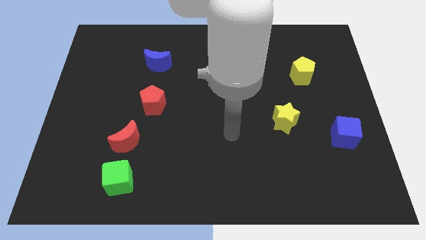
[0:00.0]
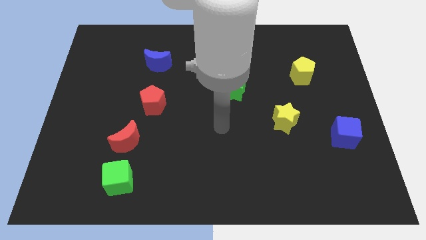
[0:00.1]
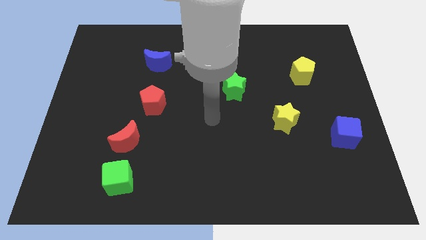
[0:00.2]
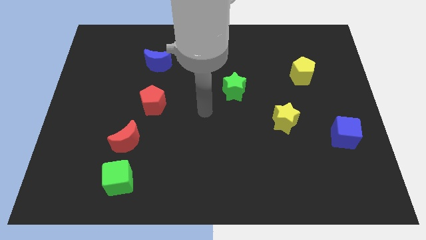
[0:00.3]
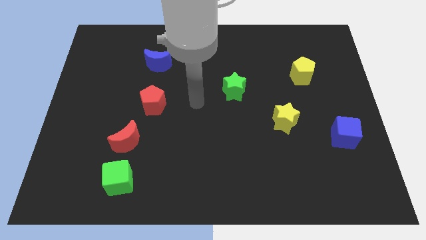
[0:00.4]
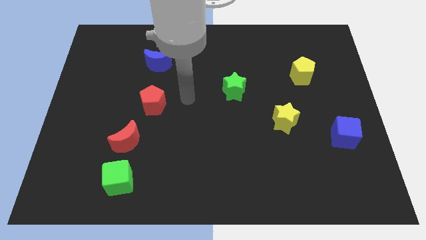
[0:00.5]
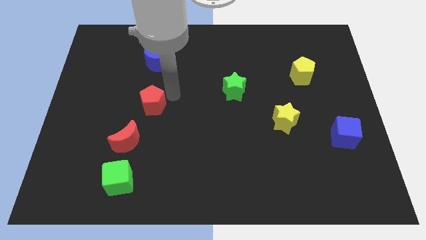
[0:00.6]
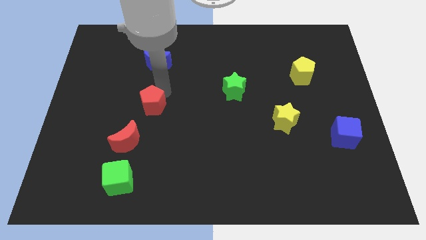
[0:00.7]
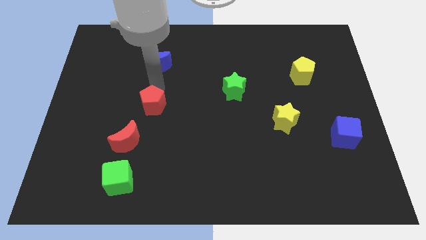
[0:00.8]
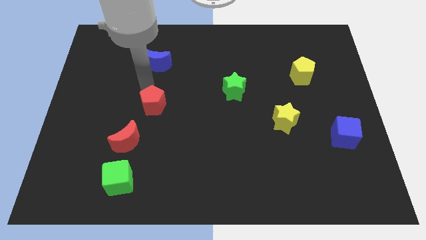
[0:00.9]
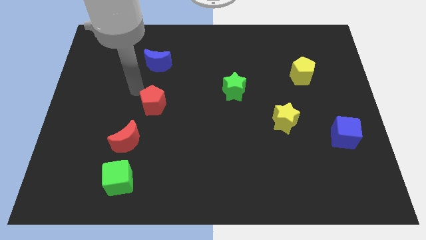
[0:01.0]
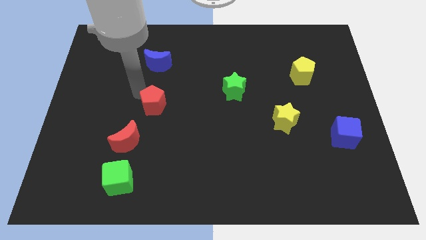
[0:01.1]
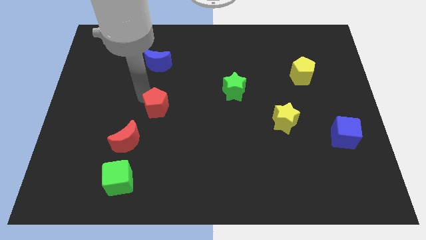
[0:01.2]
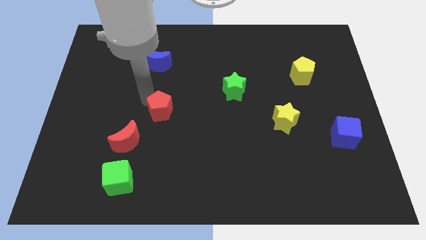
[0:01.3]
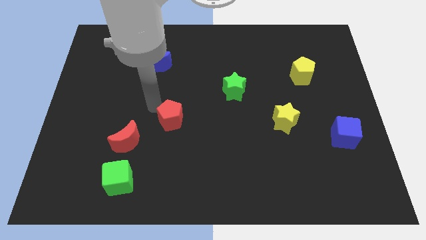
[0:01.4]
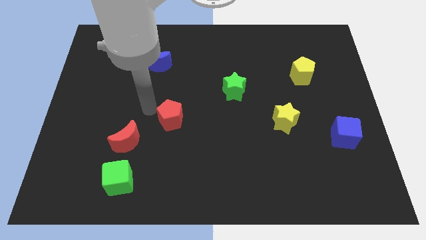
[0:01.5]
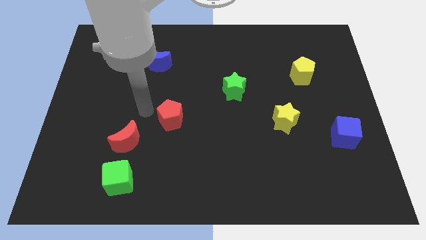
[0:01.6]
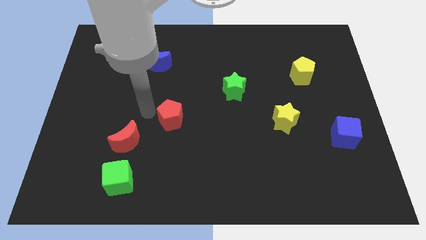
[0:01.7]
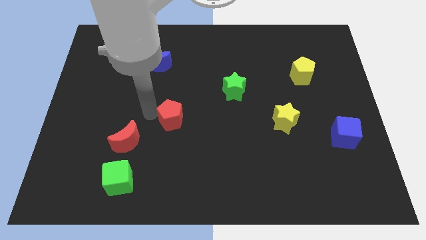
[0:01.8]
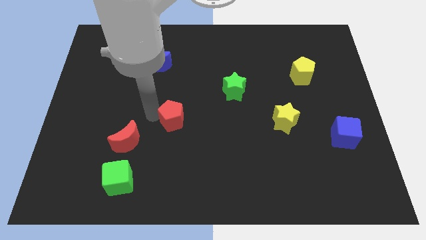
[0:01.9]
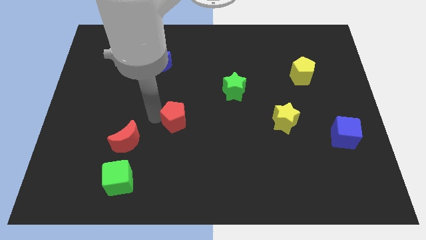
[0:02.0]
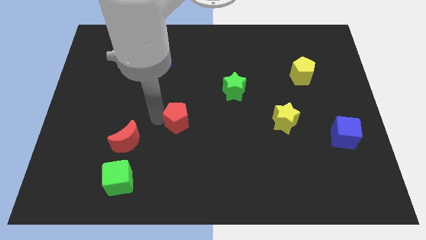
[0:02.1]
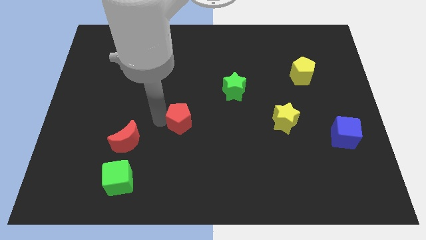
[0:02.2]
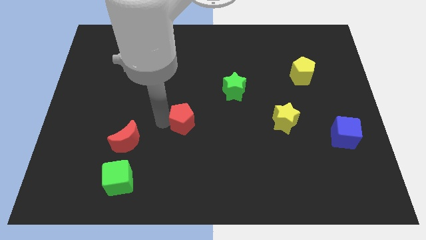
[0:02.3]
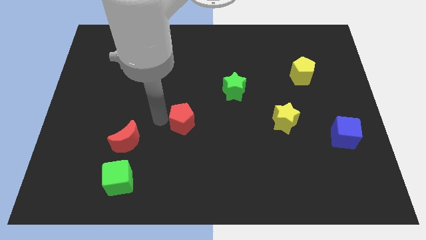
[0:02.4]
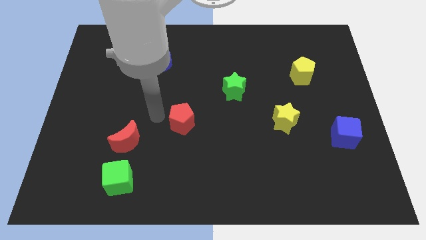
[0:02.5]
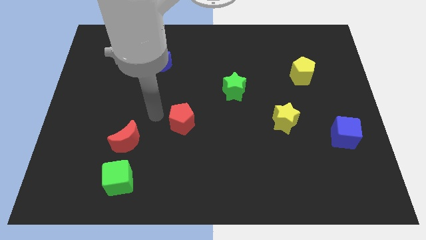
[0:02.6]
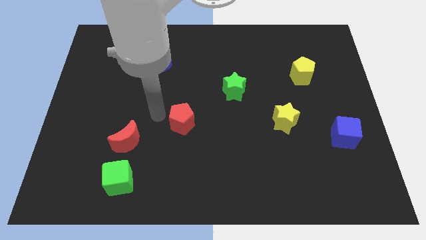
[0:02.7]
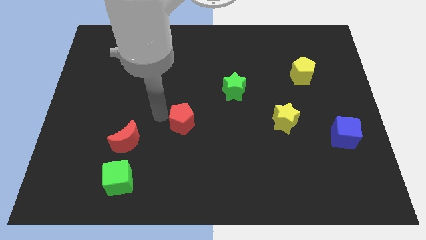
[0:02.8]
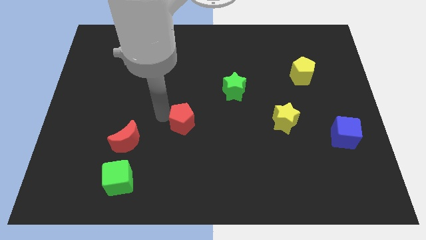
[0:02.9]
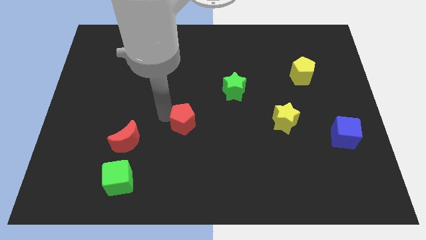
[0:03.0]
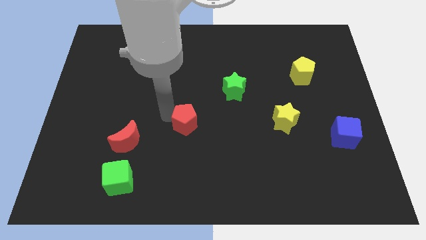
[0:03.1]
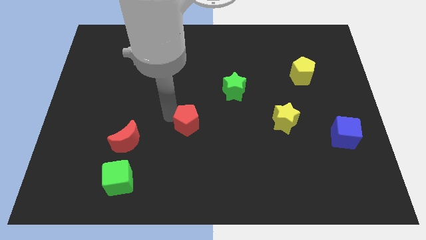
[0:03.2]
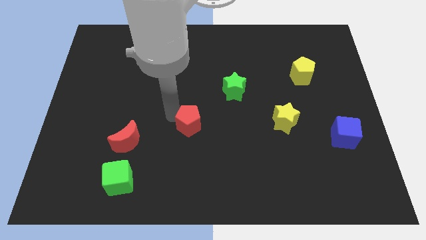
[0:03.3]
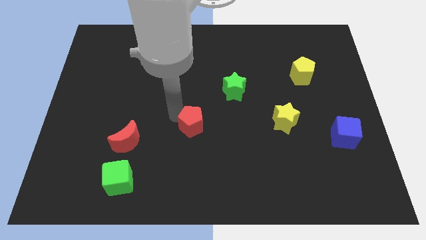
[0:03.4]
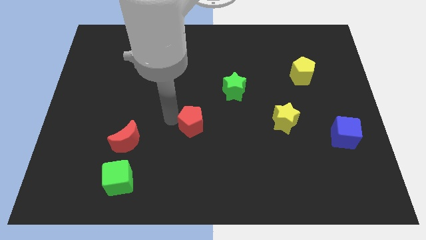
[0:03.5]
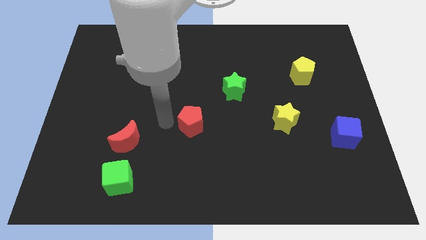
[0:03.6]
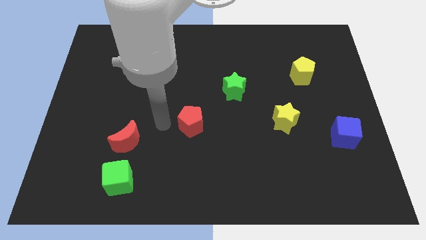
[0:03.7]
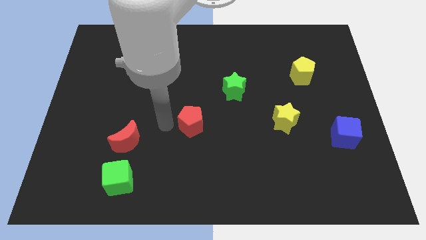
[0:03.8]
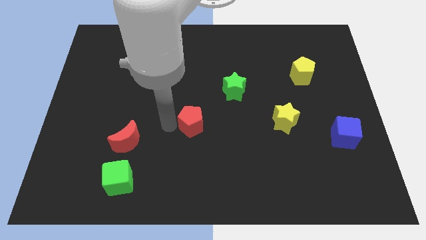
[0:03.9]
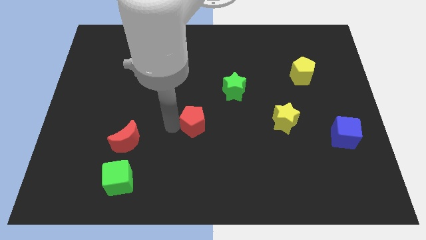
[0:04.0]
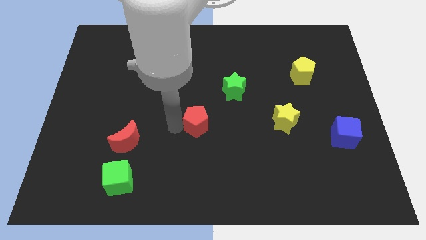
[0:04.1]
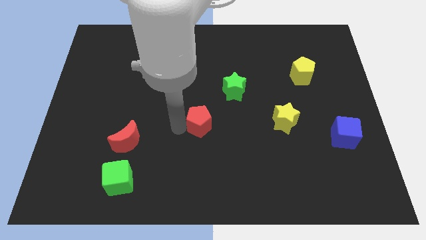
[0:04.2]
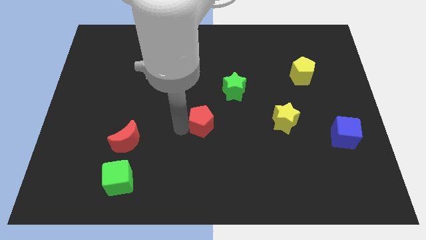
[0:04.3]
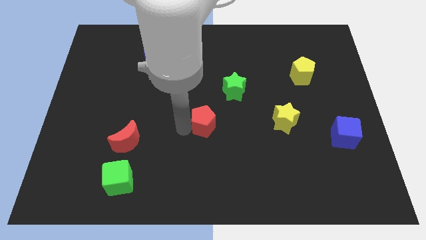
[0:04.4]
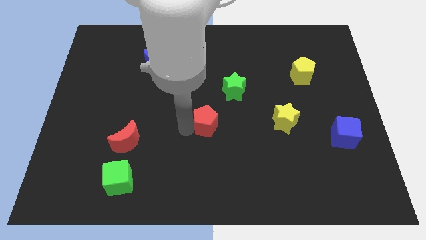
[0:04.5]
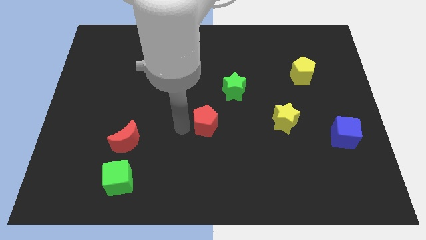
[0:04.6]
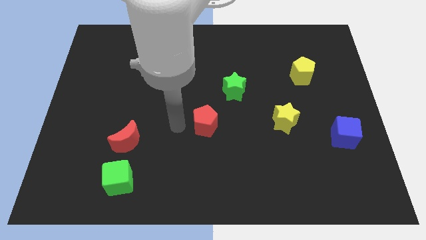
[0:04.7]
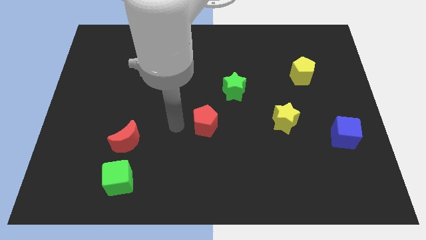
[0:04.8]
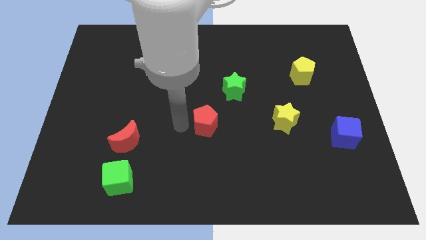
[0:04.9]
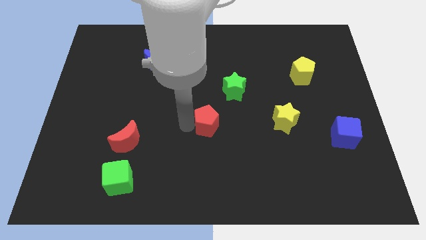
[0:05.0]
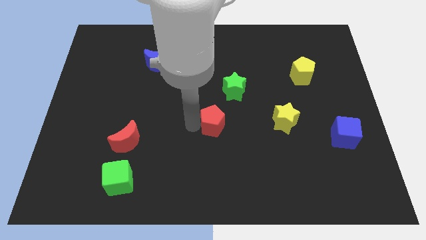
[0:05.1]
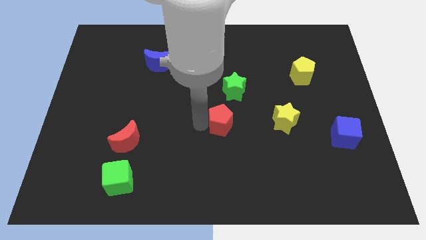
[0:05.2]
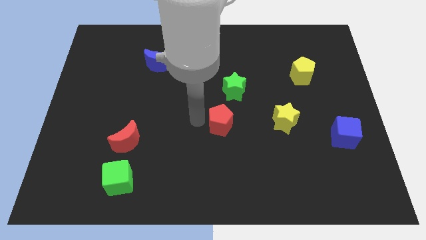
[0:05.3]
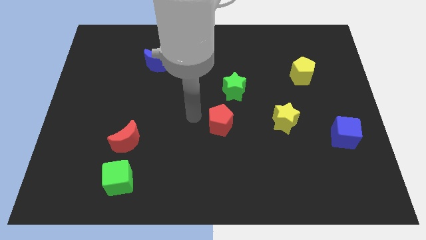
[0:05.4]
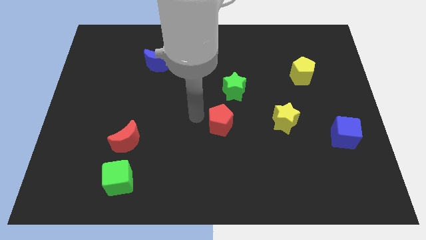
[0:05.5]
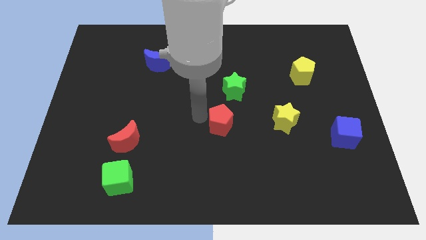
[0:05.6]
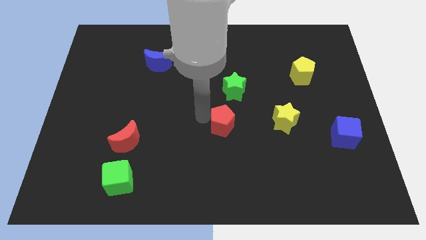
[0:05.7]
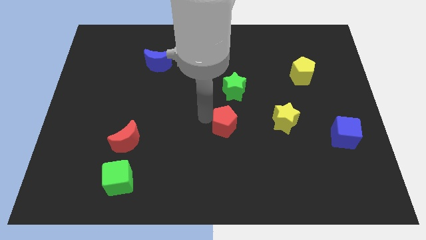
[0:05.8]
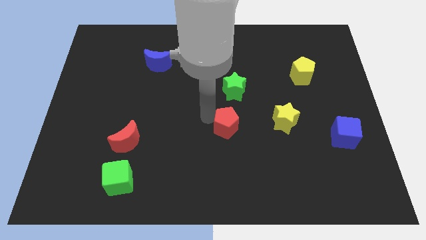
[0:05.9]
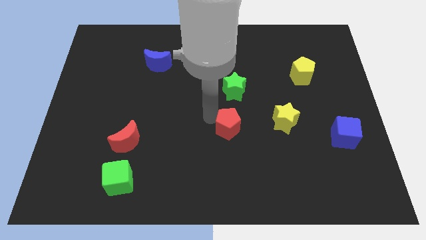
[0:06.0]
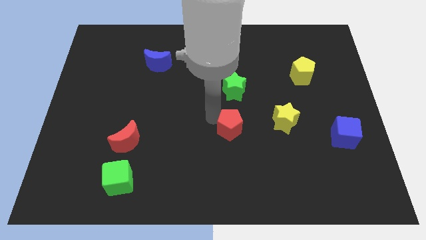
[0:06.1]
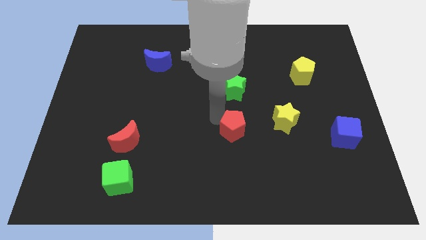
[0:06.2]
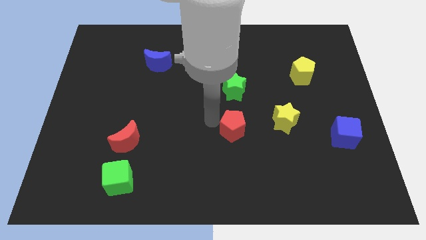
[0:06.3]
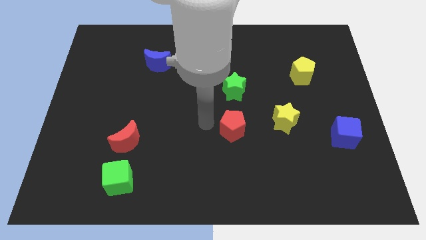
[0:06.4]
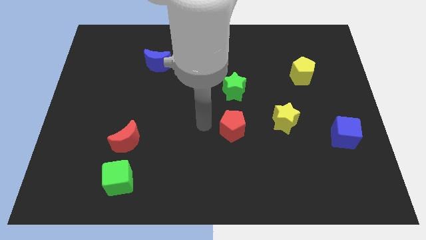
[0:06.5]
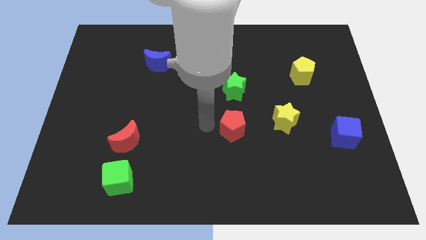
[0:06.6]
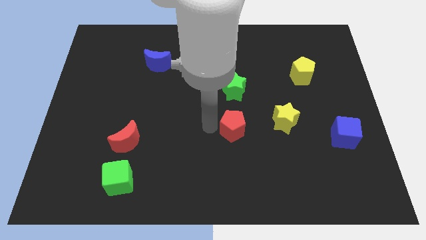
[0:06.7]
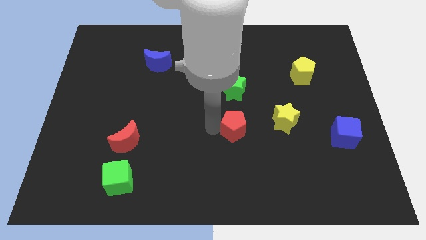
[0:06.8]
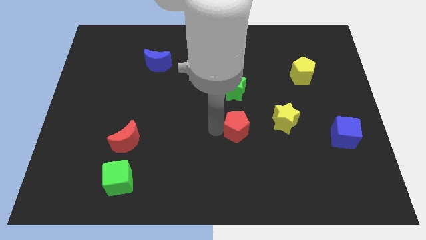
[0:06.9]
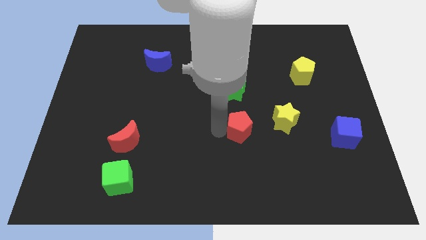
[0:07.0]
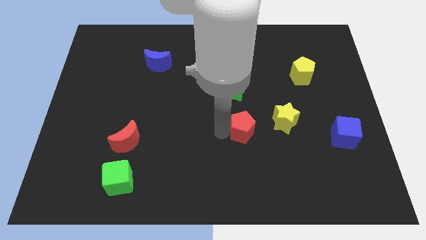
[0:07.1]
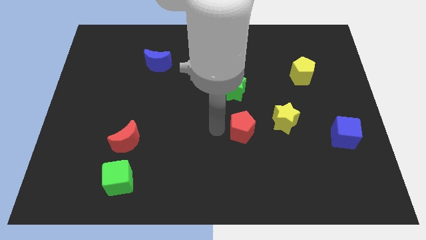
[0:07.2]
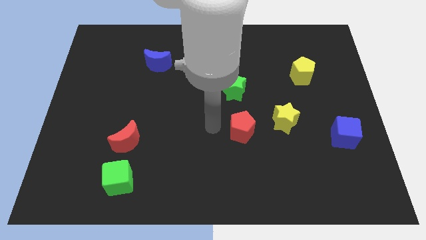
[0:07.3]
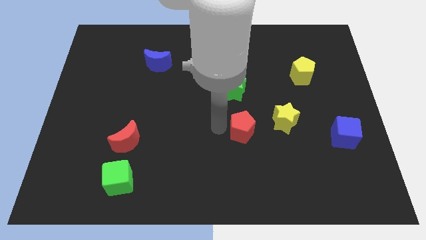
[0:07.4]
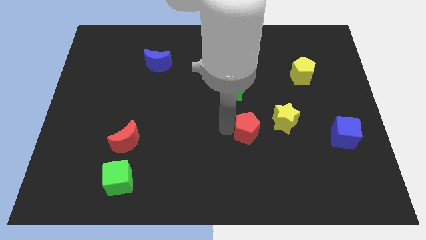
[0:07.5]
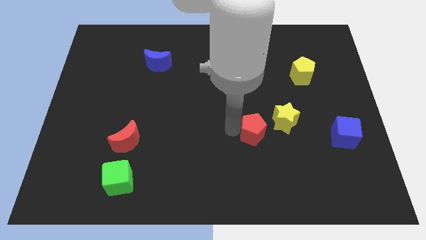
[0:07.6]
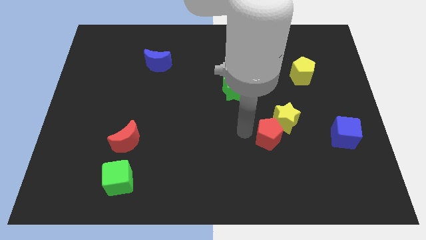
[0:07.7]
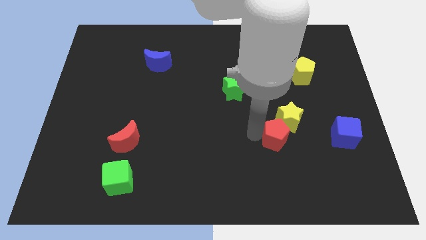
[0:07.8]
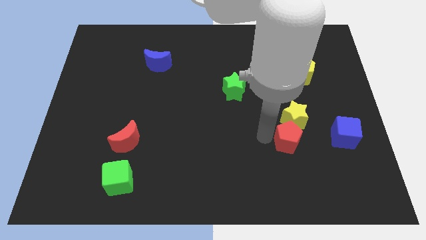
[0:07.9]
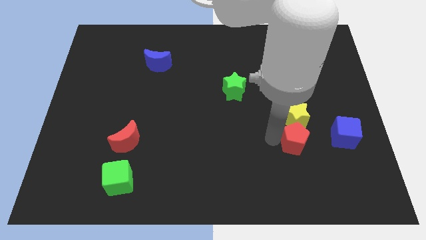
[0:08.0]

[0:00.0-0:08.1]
move the red pentagon diagonally down and to the right of the yellow star
